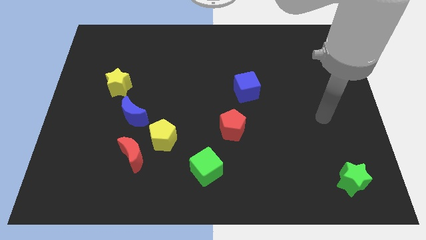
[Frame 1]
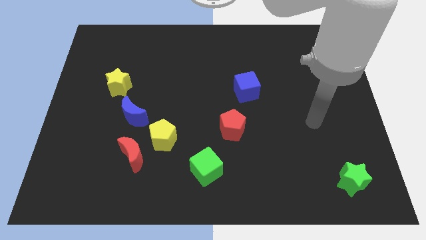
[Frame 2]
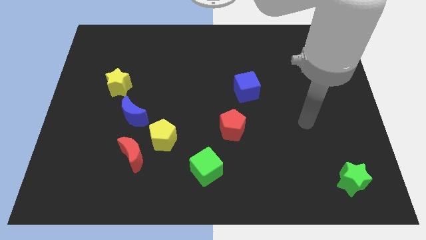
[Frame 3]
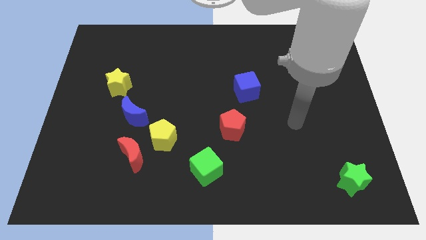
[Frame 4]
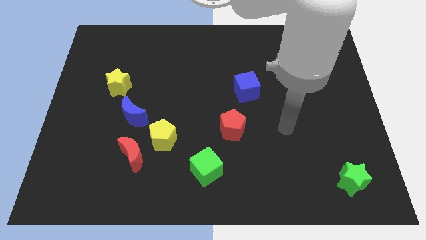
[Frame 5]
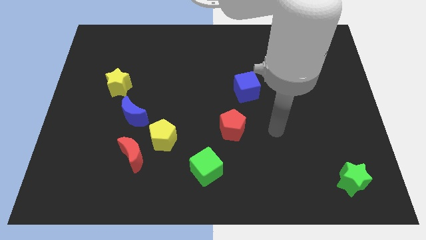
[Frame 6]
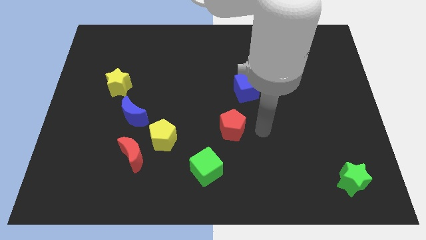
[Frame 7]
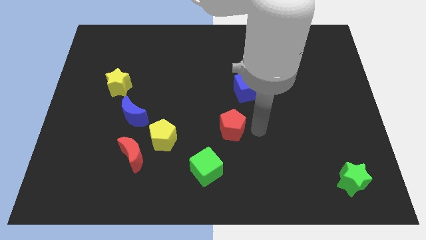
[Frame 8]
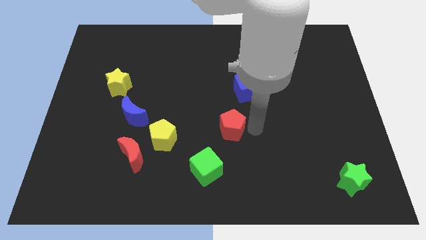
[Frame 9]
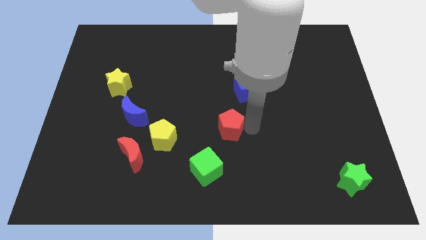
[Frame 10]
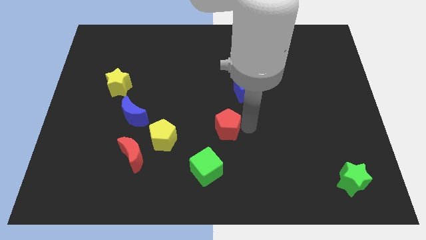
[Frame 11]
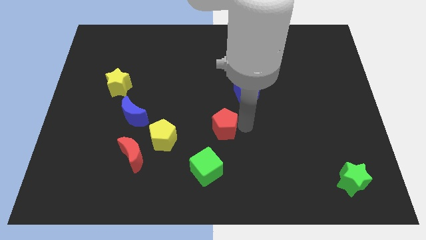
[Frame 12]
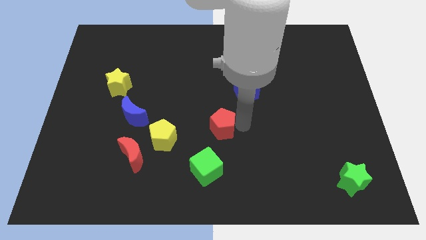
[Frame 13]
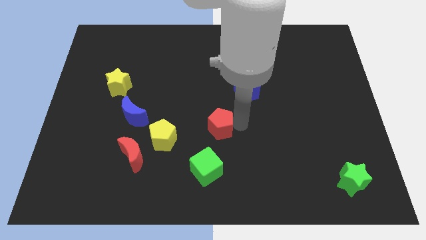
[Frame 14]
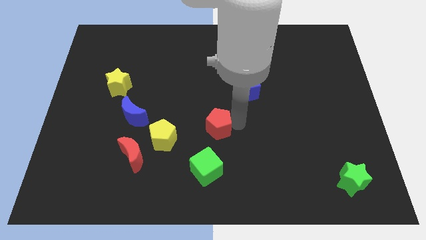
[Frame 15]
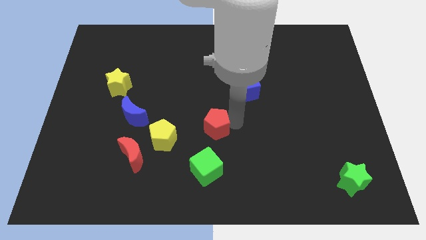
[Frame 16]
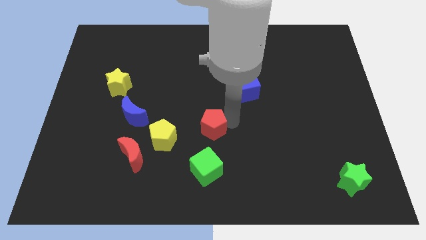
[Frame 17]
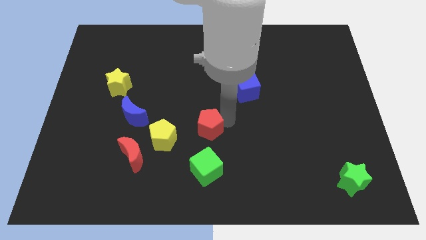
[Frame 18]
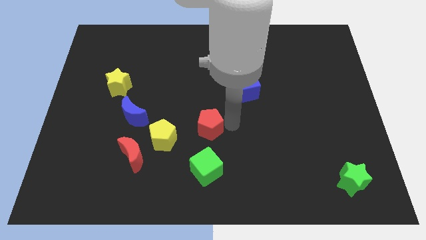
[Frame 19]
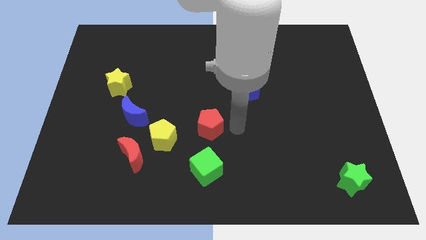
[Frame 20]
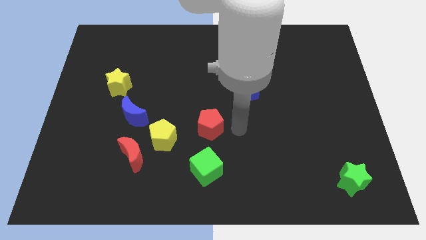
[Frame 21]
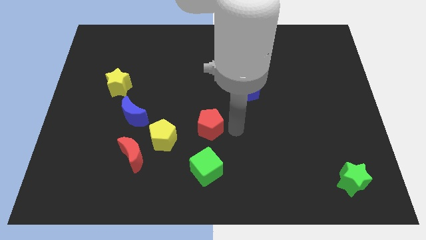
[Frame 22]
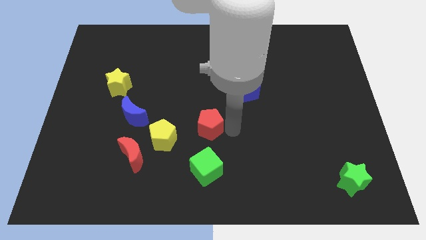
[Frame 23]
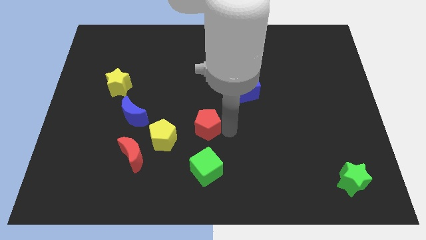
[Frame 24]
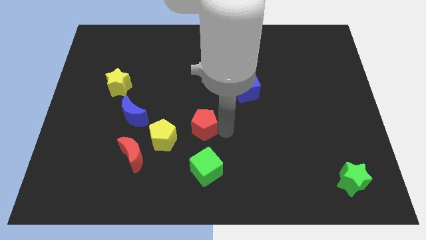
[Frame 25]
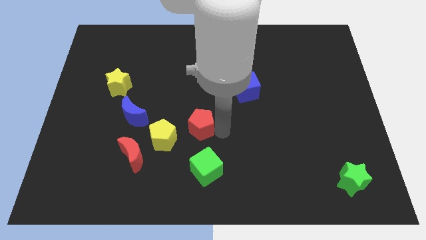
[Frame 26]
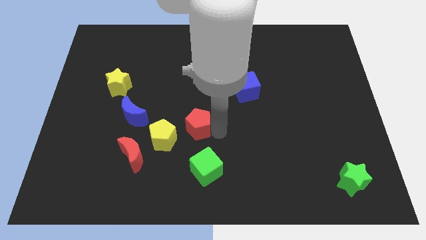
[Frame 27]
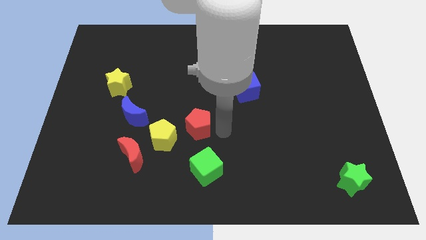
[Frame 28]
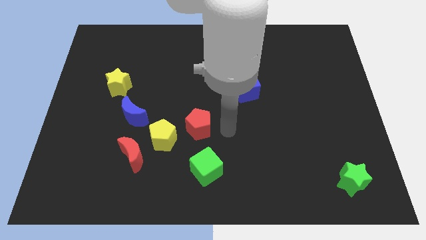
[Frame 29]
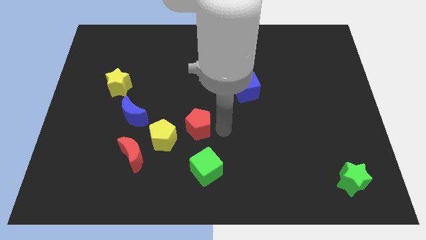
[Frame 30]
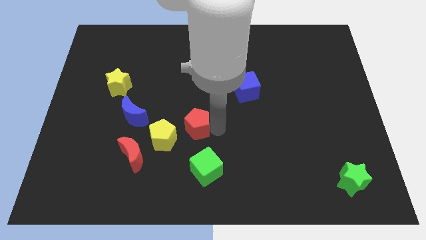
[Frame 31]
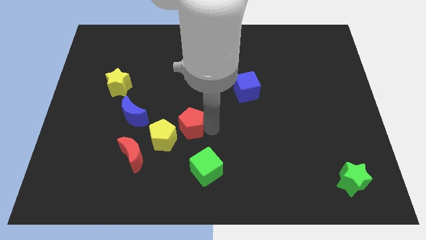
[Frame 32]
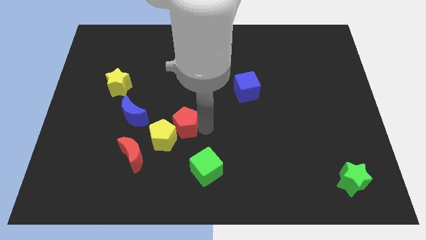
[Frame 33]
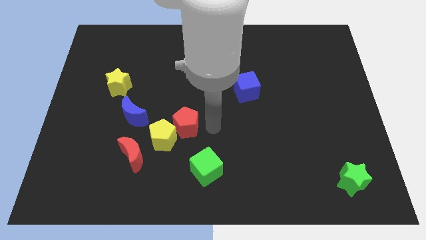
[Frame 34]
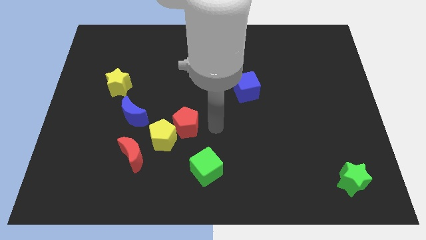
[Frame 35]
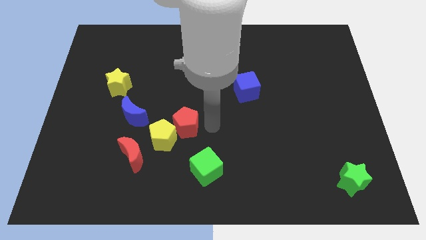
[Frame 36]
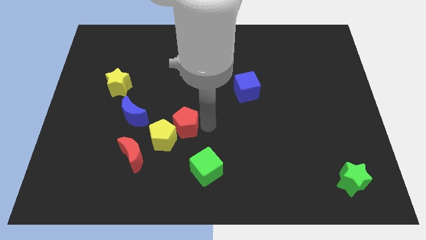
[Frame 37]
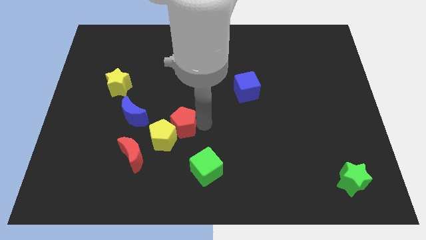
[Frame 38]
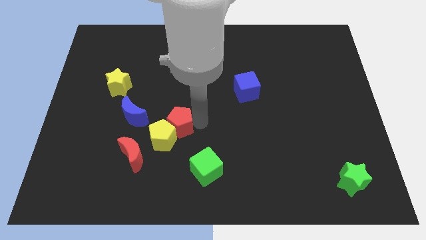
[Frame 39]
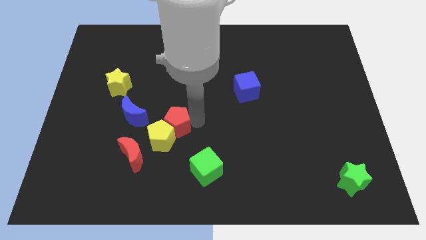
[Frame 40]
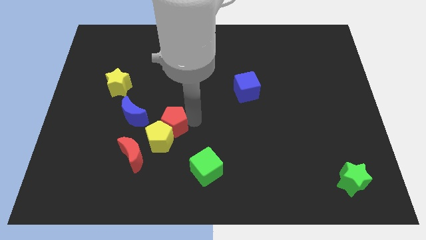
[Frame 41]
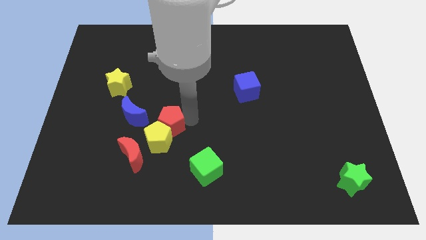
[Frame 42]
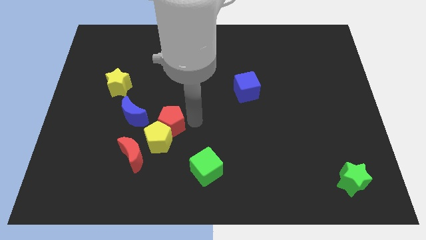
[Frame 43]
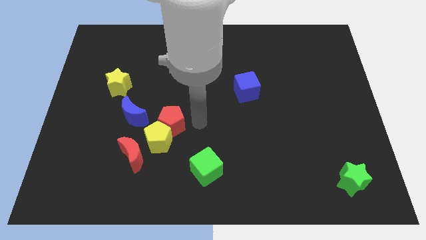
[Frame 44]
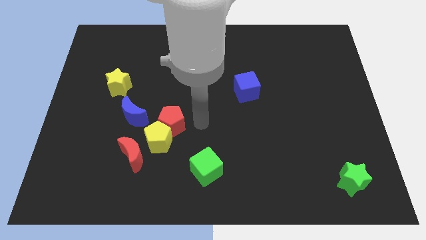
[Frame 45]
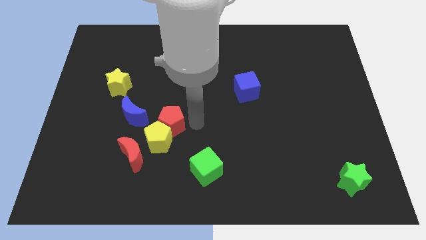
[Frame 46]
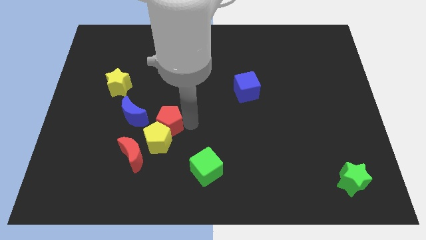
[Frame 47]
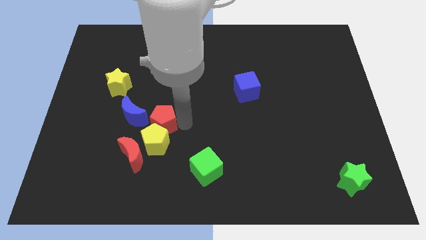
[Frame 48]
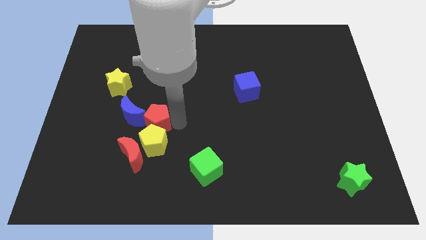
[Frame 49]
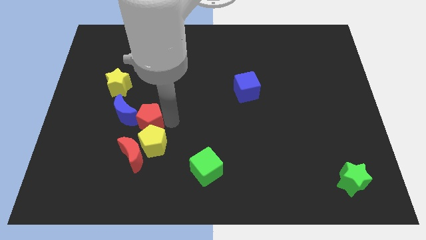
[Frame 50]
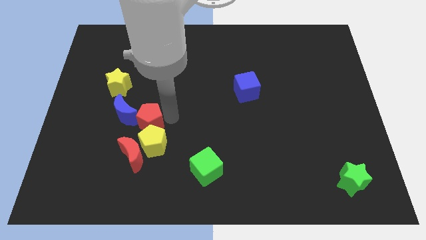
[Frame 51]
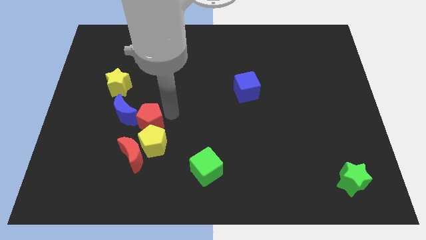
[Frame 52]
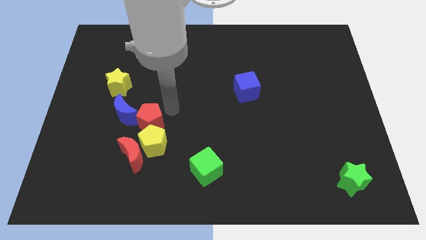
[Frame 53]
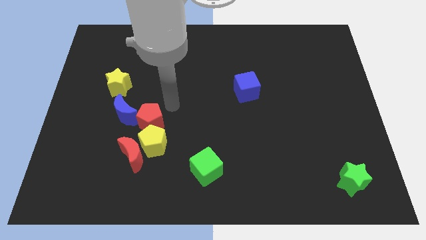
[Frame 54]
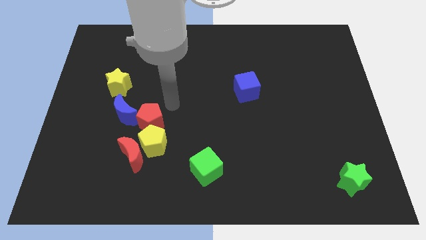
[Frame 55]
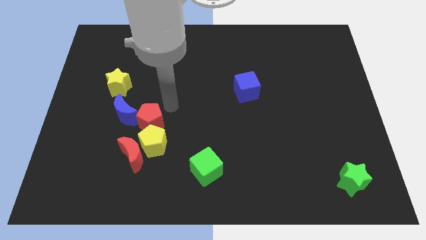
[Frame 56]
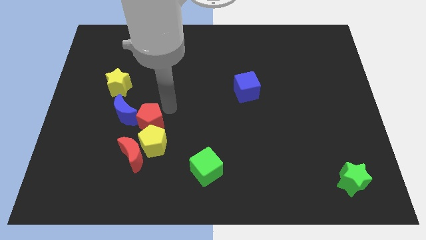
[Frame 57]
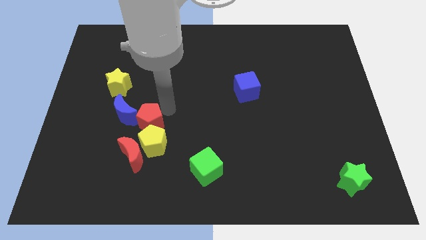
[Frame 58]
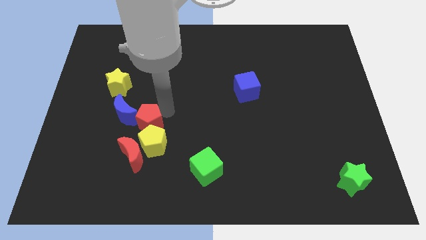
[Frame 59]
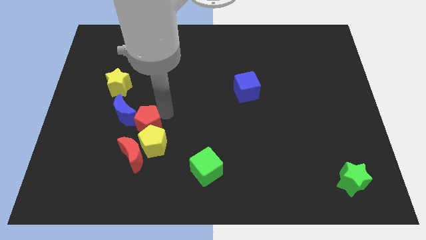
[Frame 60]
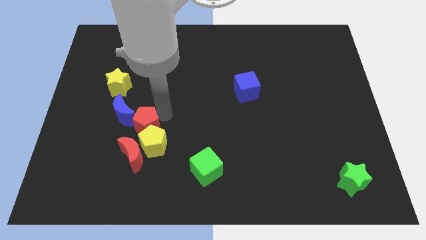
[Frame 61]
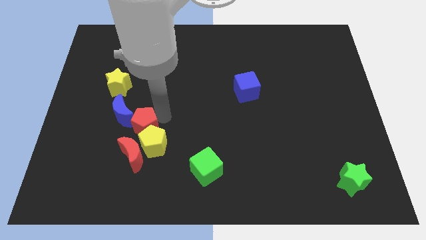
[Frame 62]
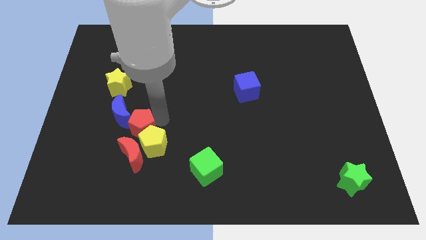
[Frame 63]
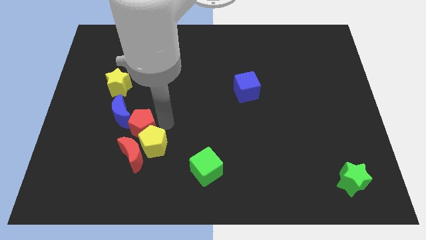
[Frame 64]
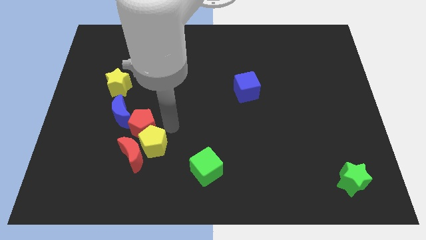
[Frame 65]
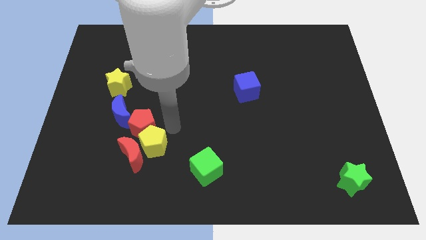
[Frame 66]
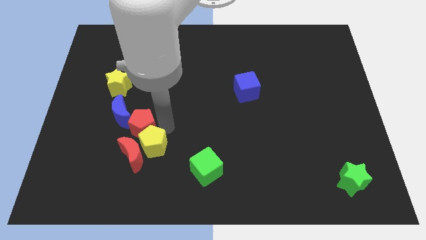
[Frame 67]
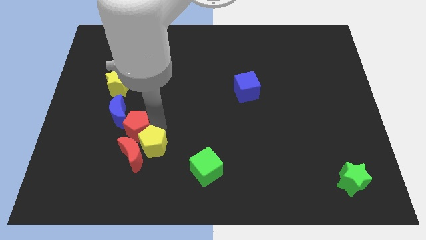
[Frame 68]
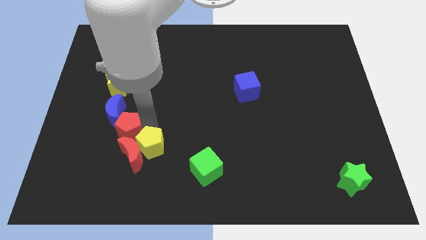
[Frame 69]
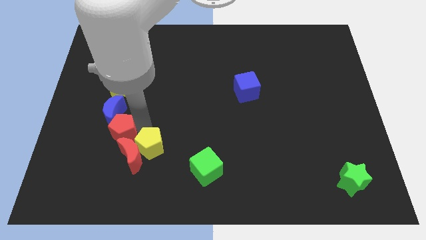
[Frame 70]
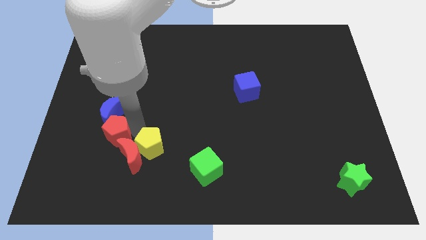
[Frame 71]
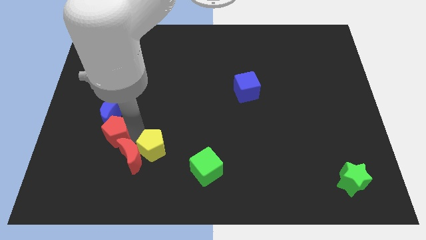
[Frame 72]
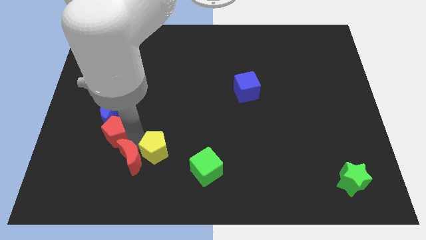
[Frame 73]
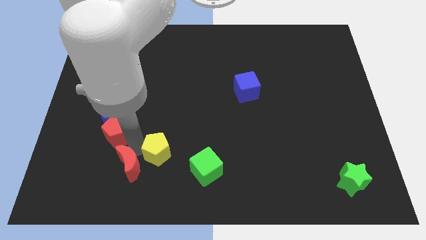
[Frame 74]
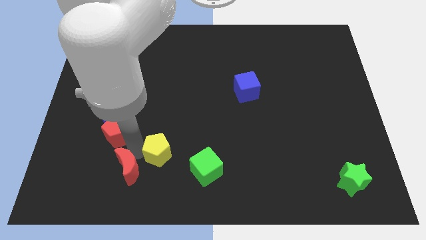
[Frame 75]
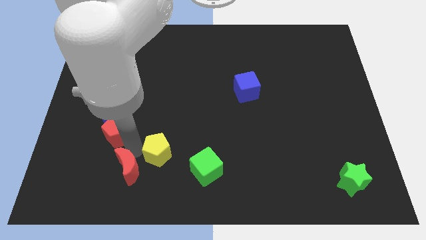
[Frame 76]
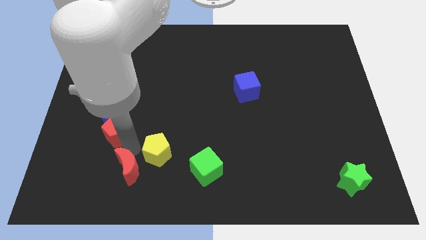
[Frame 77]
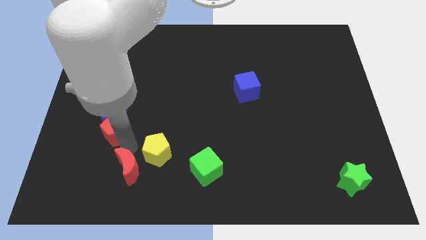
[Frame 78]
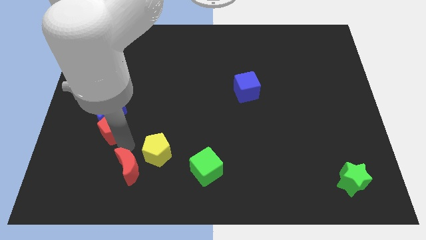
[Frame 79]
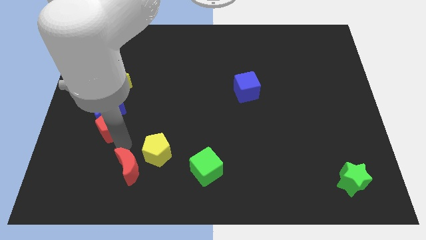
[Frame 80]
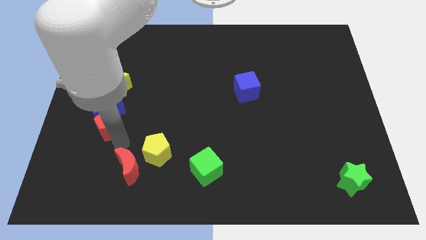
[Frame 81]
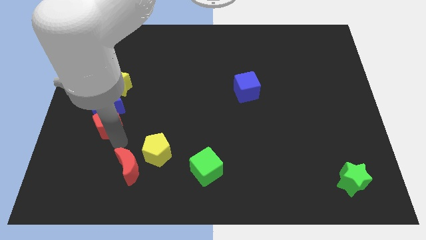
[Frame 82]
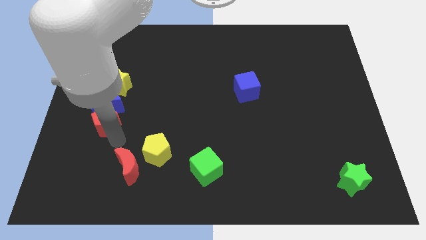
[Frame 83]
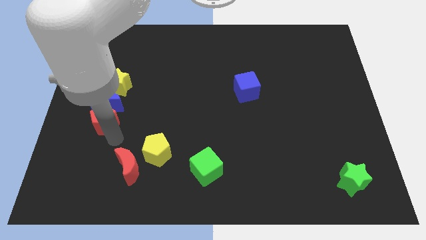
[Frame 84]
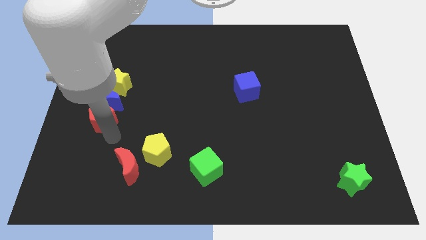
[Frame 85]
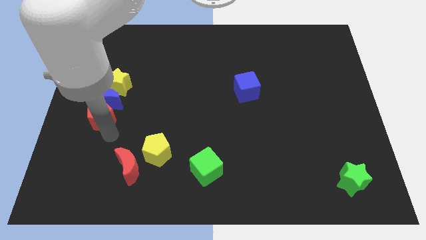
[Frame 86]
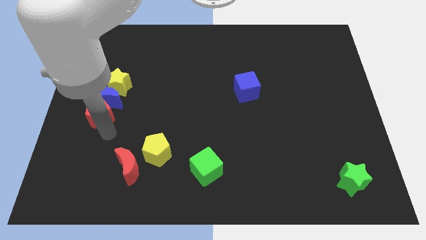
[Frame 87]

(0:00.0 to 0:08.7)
put the red pentagon to the bottom left side of the yellow star
